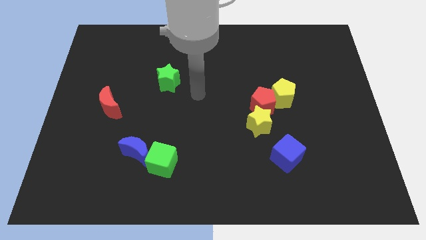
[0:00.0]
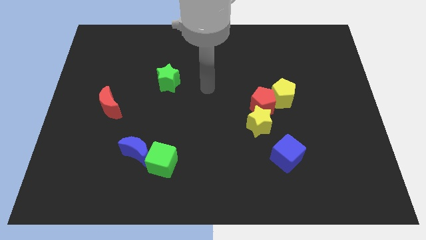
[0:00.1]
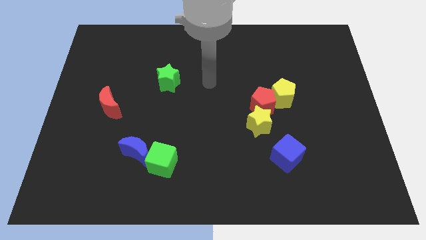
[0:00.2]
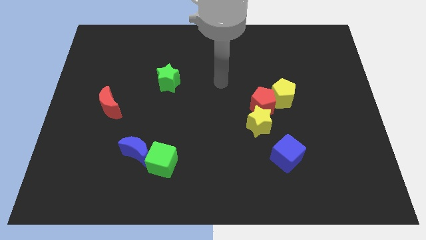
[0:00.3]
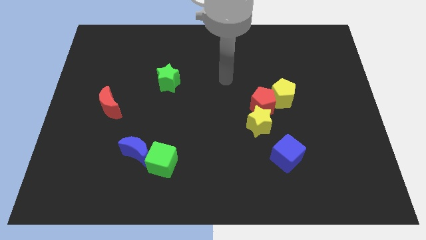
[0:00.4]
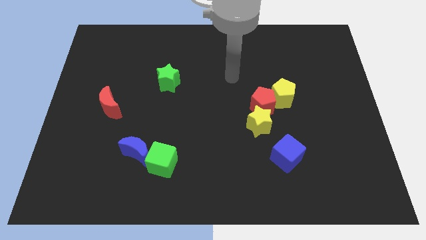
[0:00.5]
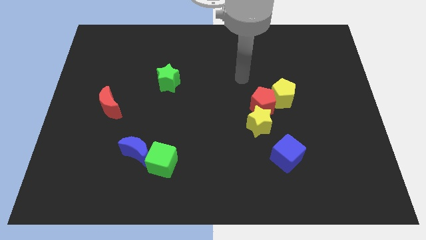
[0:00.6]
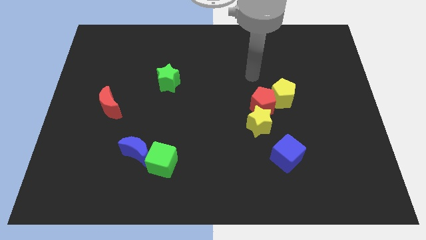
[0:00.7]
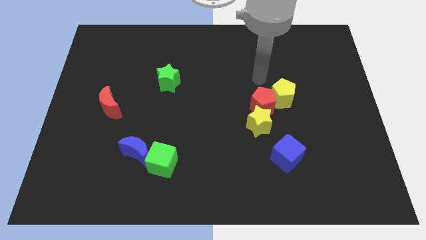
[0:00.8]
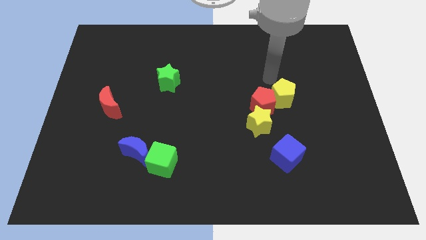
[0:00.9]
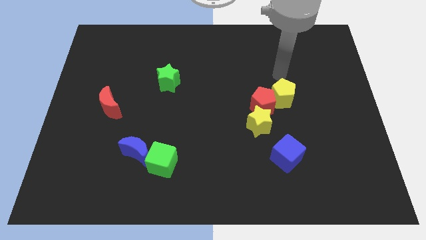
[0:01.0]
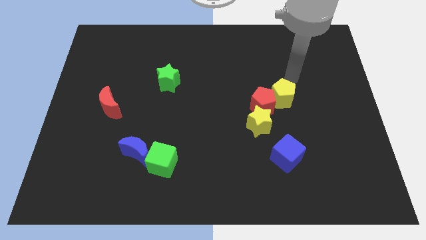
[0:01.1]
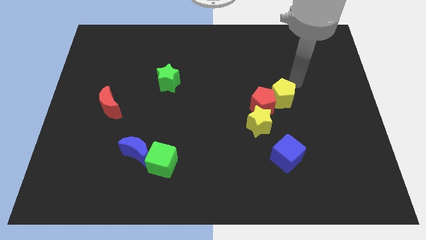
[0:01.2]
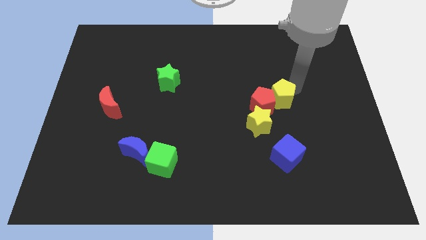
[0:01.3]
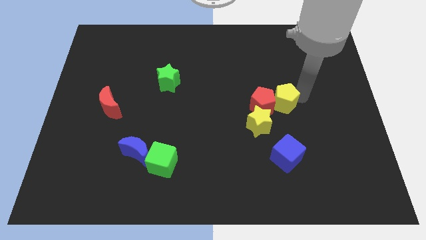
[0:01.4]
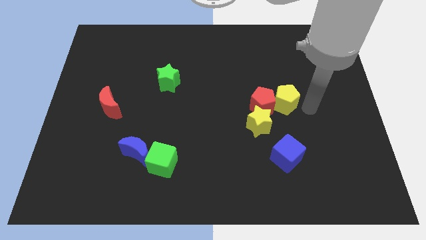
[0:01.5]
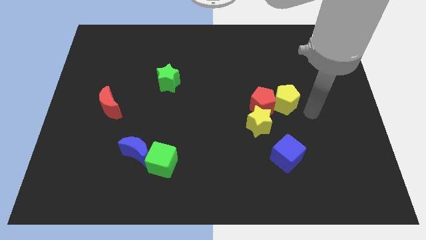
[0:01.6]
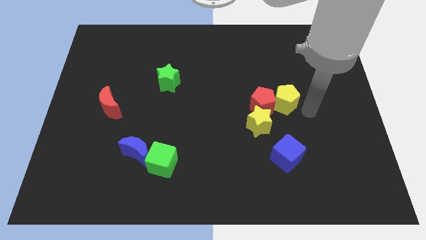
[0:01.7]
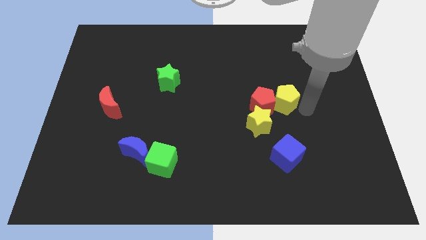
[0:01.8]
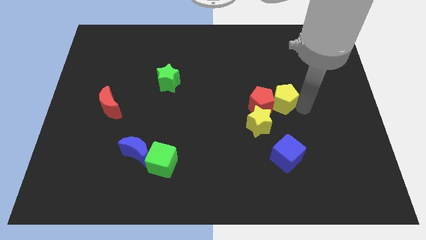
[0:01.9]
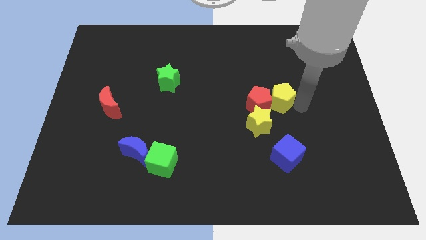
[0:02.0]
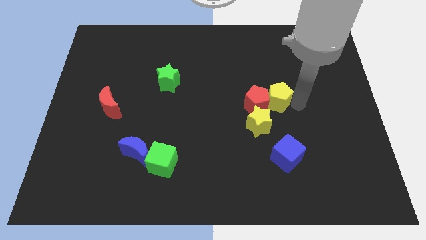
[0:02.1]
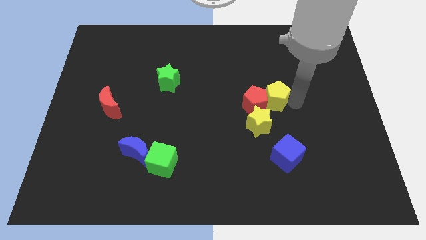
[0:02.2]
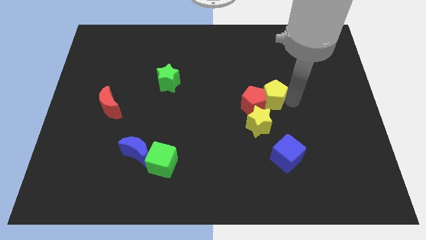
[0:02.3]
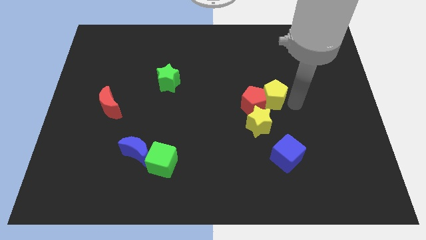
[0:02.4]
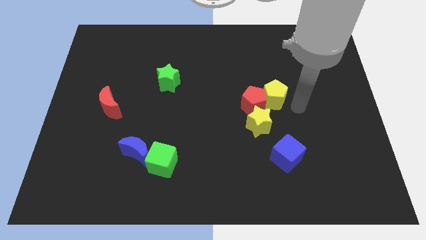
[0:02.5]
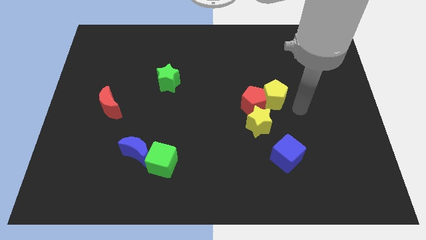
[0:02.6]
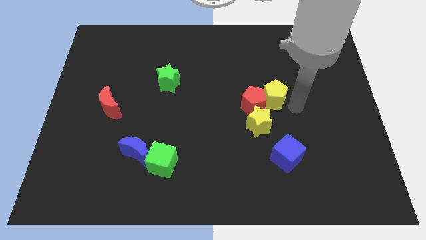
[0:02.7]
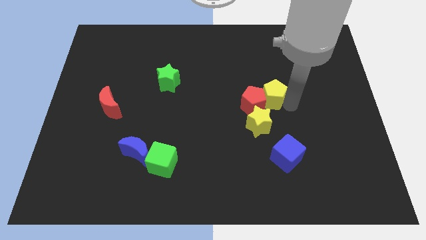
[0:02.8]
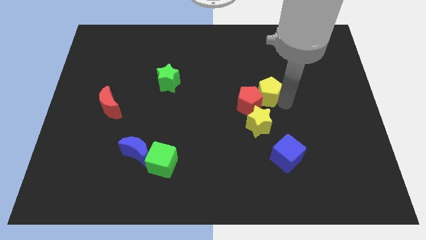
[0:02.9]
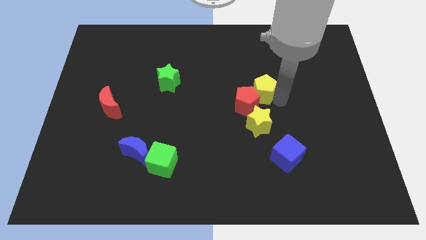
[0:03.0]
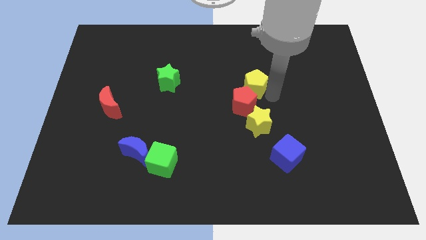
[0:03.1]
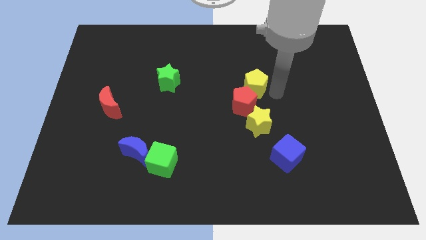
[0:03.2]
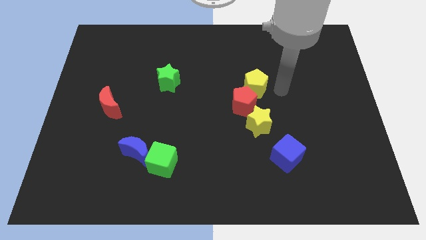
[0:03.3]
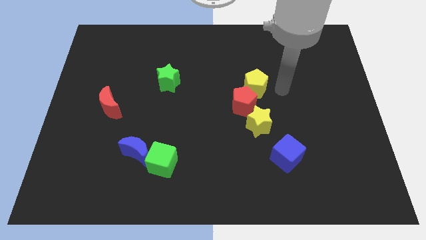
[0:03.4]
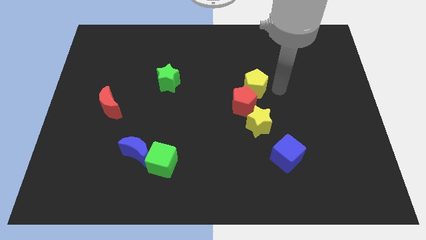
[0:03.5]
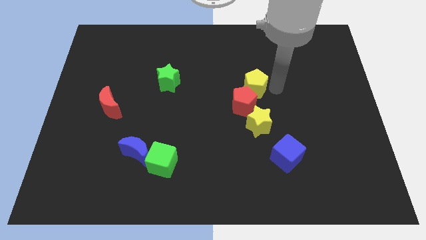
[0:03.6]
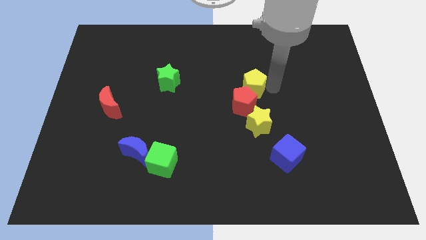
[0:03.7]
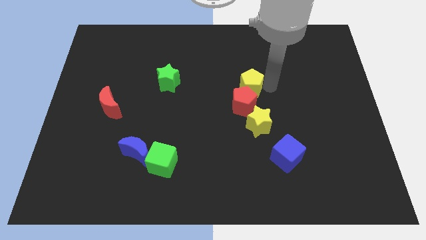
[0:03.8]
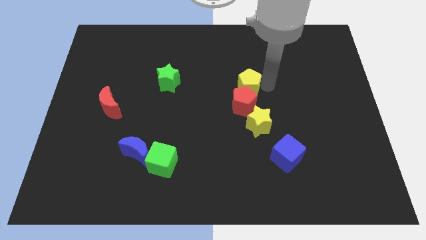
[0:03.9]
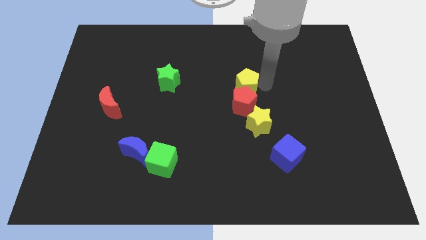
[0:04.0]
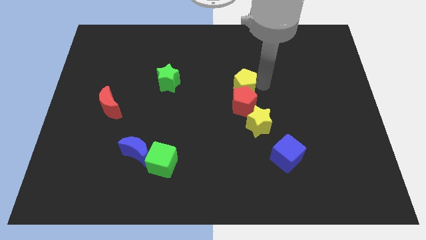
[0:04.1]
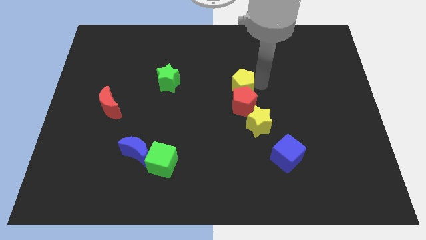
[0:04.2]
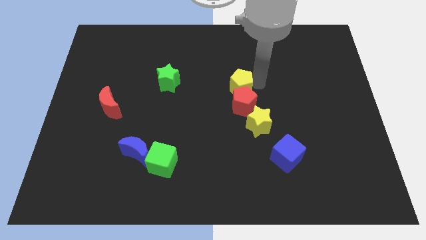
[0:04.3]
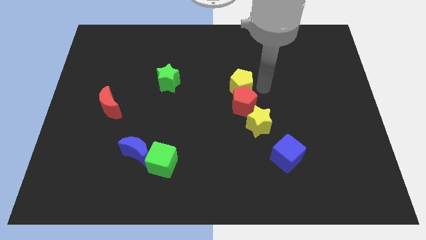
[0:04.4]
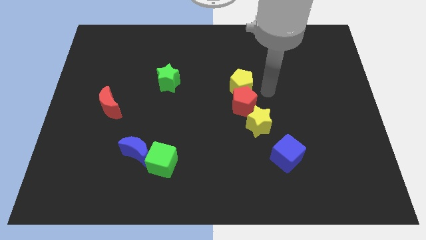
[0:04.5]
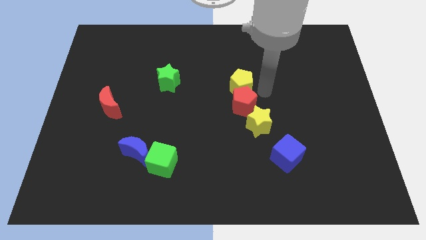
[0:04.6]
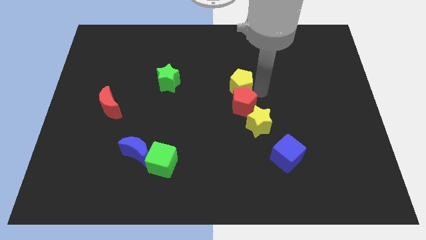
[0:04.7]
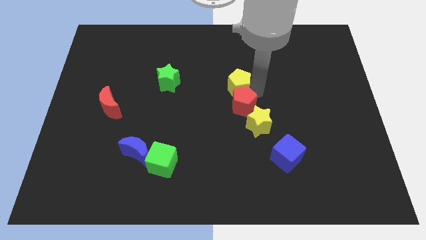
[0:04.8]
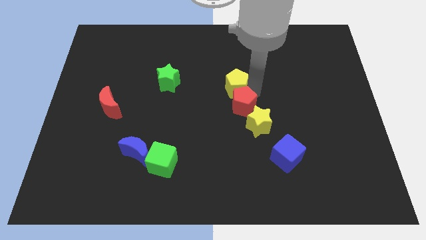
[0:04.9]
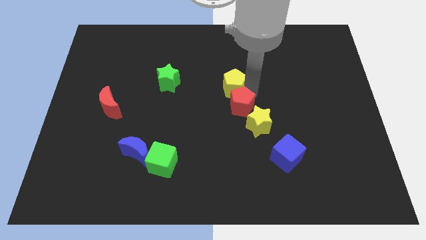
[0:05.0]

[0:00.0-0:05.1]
push the yellow pentagon right of the green star

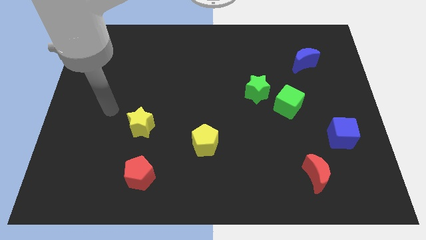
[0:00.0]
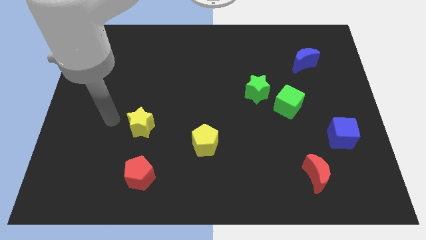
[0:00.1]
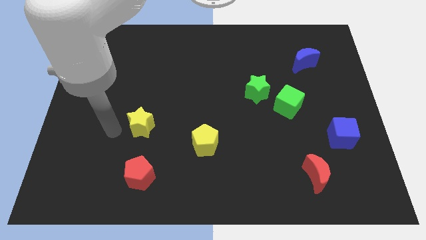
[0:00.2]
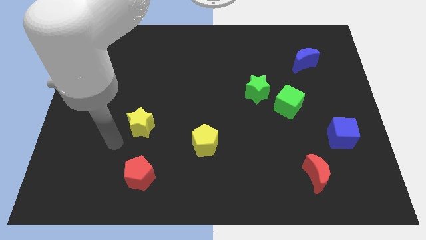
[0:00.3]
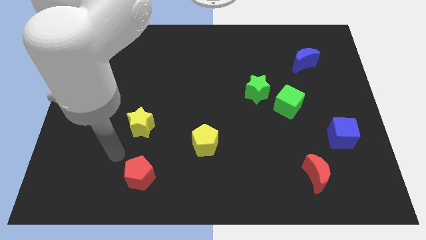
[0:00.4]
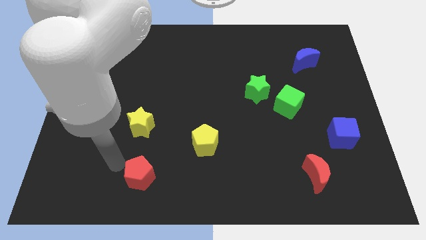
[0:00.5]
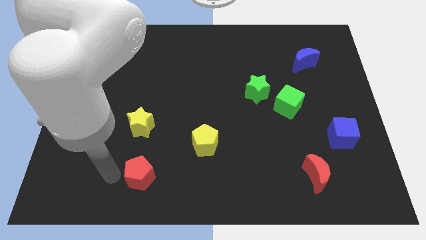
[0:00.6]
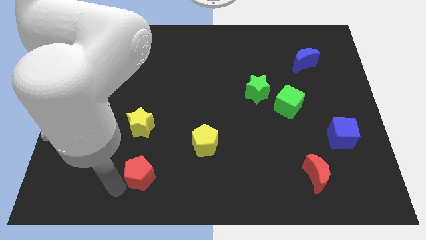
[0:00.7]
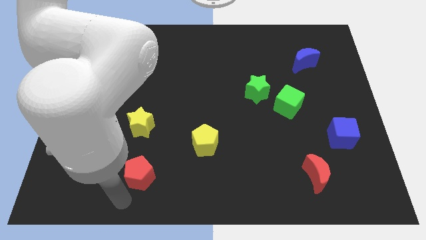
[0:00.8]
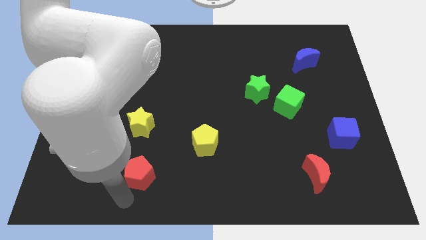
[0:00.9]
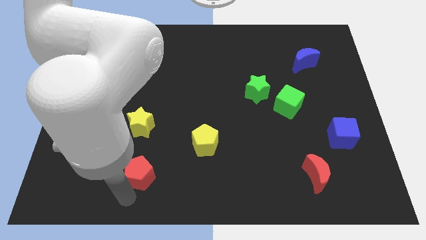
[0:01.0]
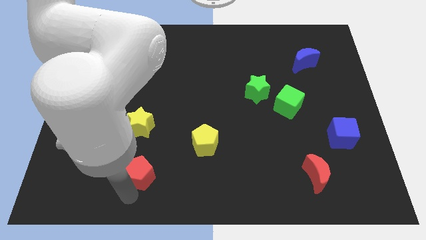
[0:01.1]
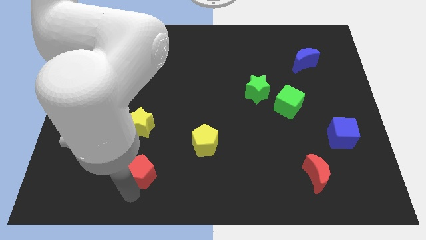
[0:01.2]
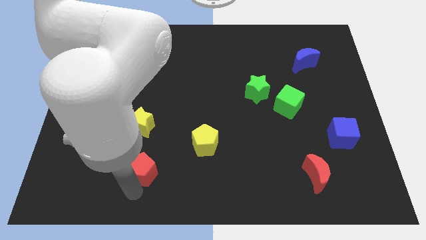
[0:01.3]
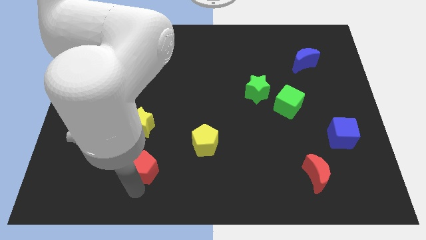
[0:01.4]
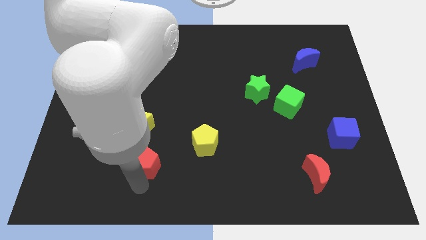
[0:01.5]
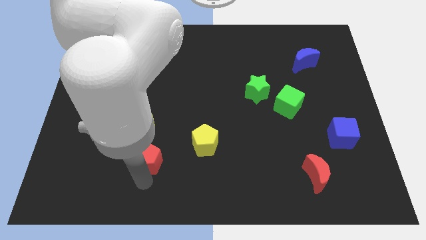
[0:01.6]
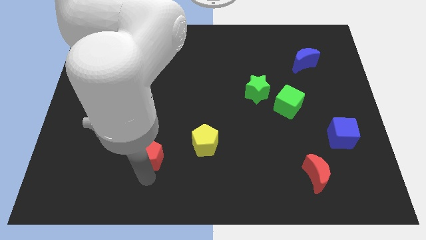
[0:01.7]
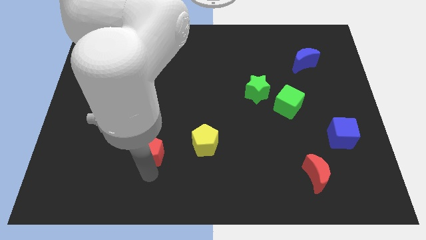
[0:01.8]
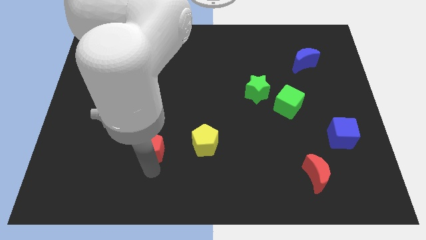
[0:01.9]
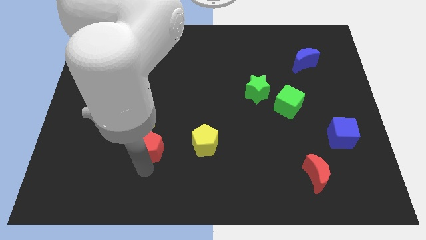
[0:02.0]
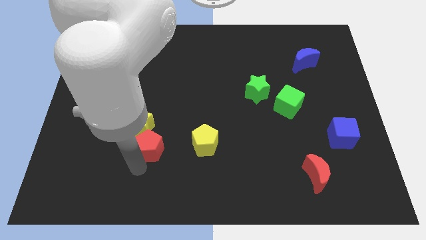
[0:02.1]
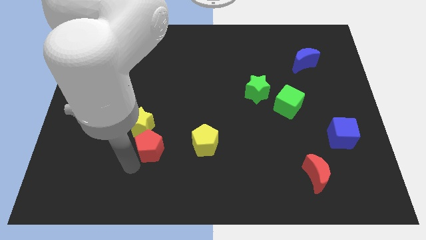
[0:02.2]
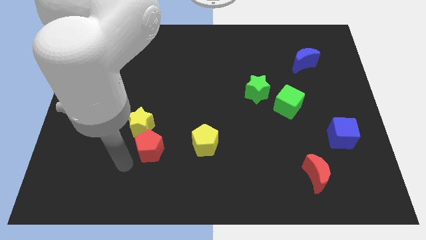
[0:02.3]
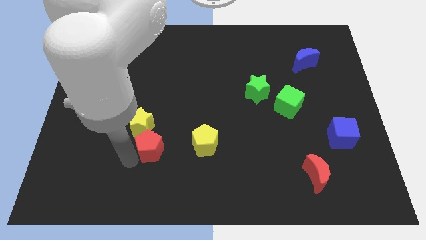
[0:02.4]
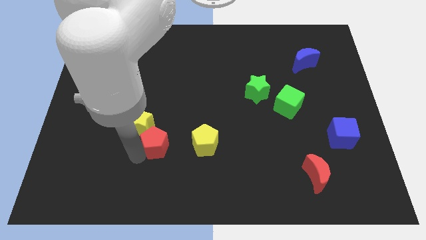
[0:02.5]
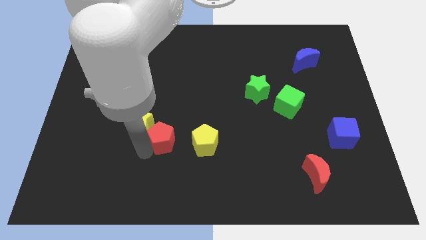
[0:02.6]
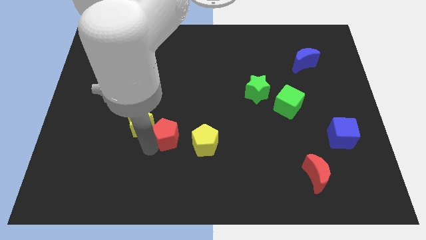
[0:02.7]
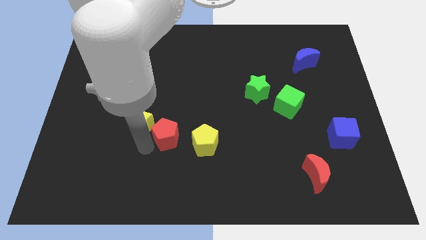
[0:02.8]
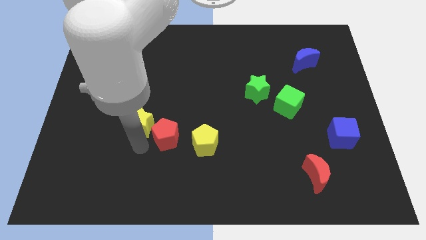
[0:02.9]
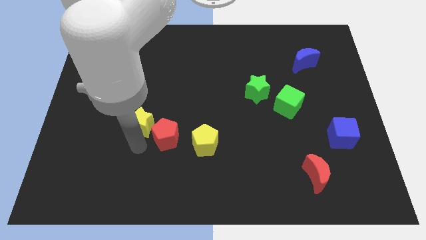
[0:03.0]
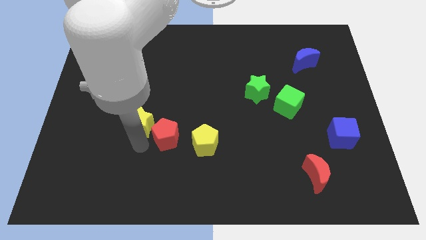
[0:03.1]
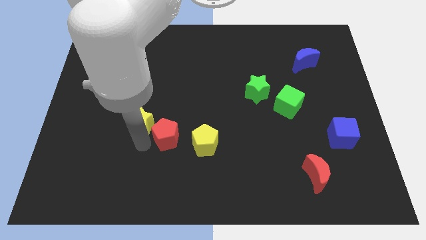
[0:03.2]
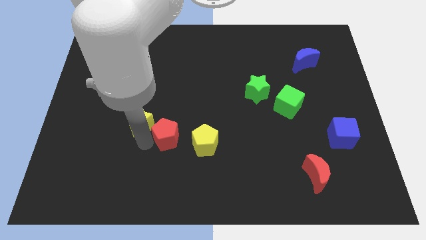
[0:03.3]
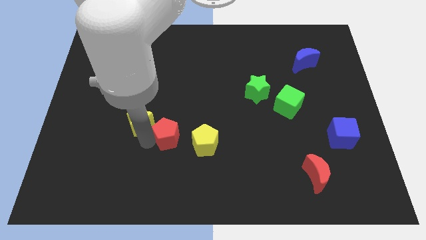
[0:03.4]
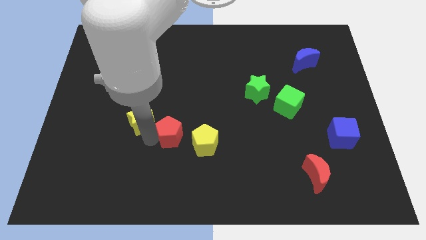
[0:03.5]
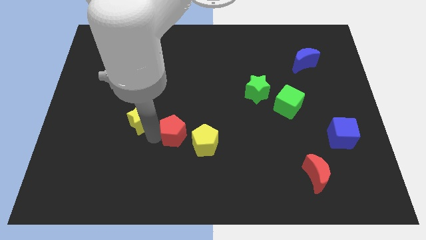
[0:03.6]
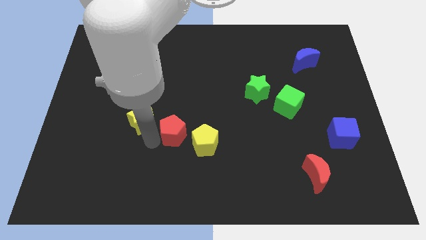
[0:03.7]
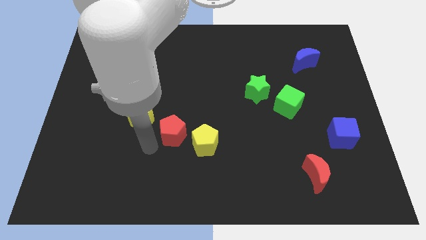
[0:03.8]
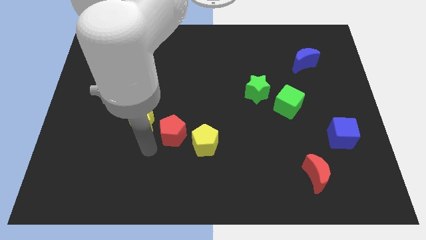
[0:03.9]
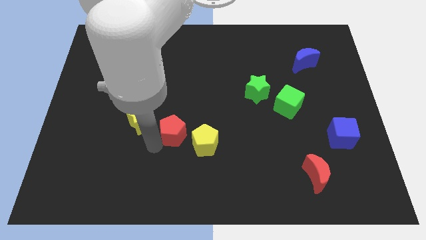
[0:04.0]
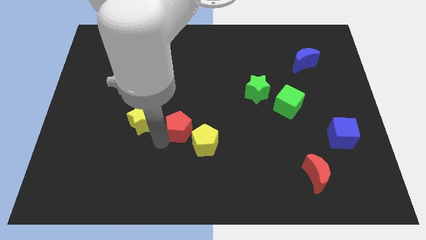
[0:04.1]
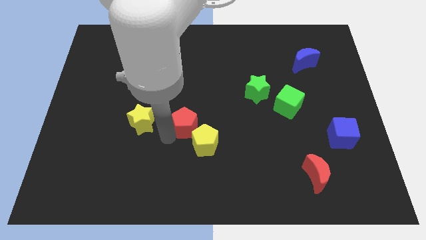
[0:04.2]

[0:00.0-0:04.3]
slide the red pentagon above the yellow pentagon
